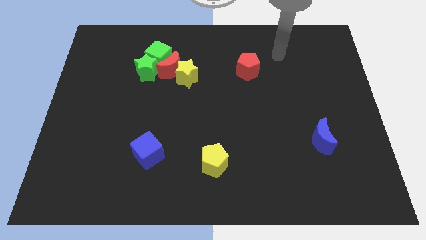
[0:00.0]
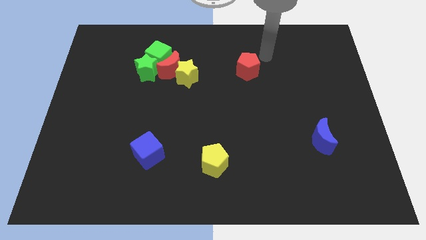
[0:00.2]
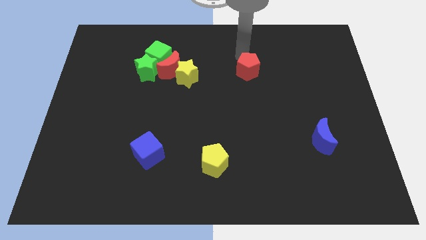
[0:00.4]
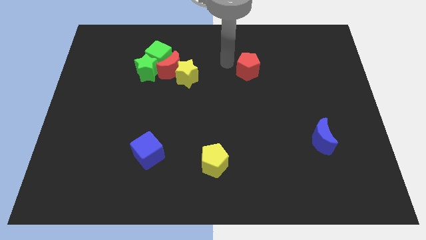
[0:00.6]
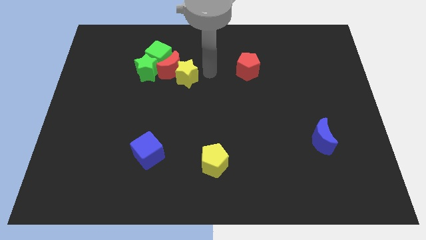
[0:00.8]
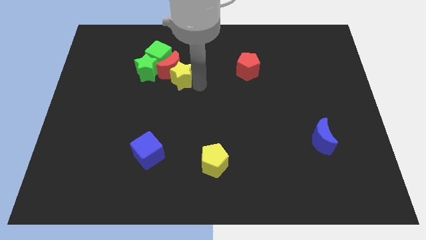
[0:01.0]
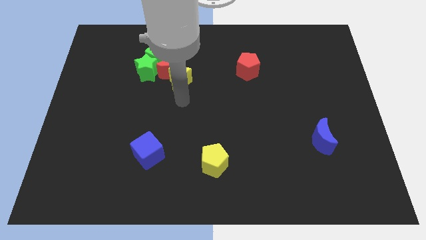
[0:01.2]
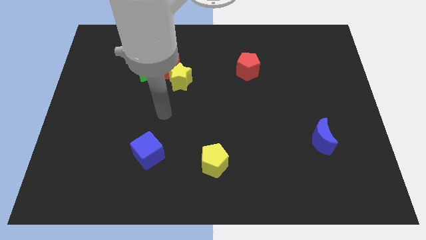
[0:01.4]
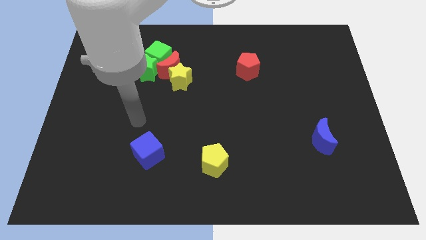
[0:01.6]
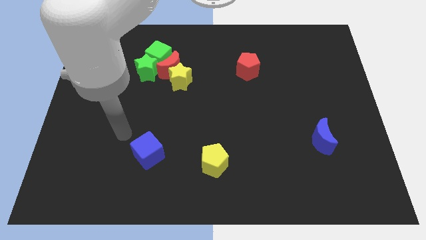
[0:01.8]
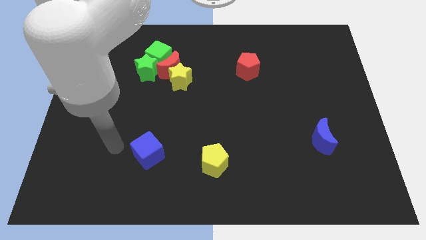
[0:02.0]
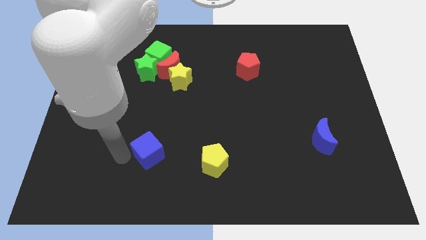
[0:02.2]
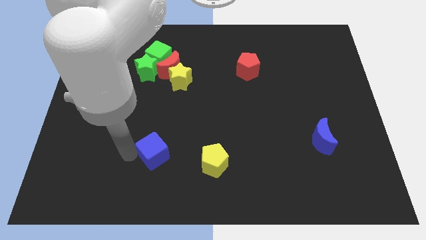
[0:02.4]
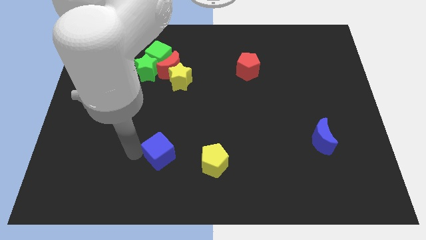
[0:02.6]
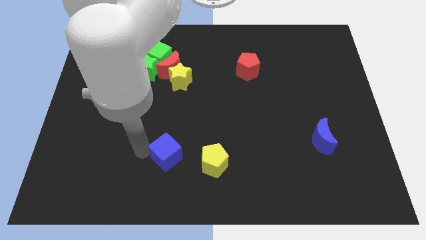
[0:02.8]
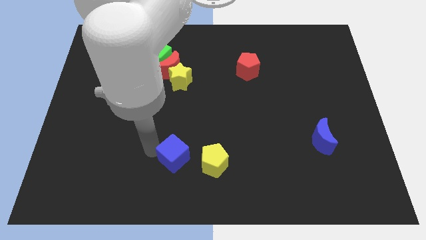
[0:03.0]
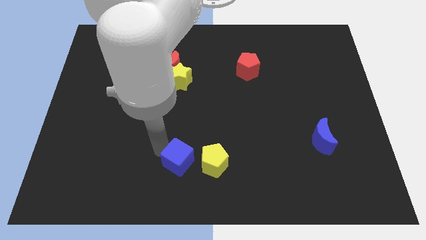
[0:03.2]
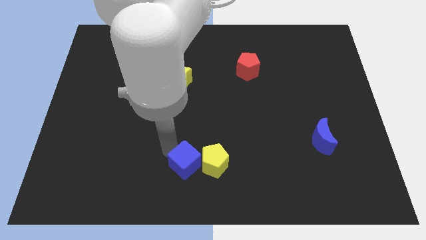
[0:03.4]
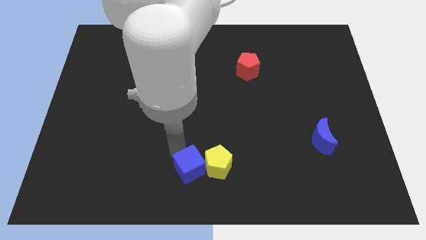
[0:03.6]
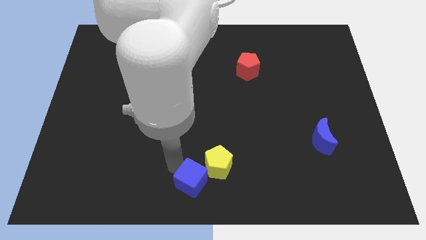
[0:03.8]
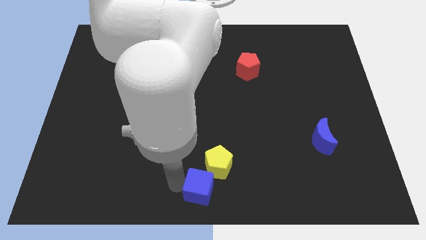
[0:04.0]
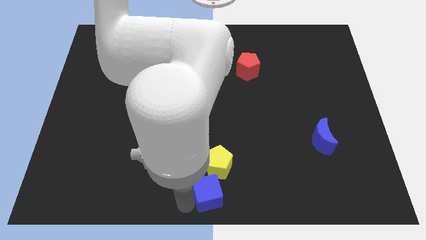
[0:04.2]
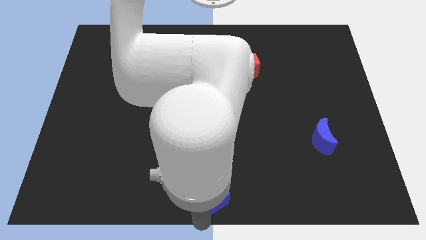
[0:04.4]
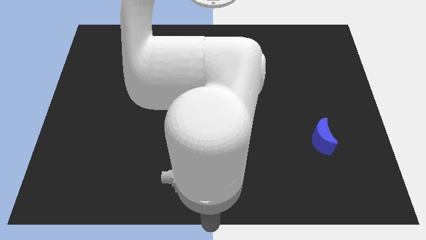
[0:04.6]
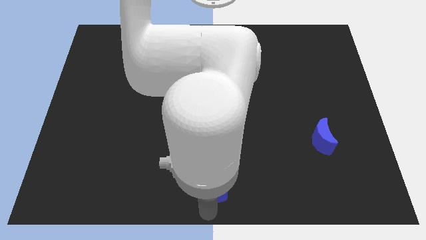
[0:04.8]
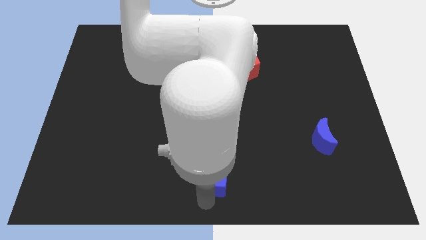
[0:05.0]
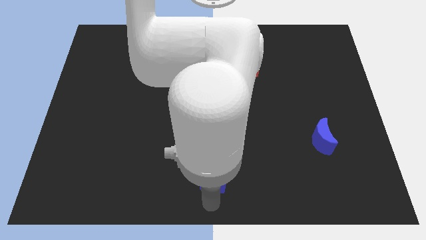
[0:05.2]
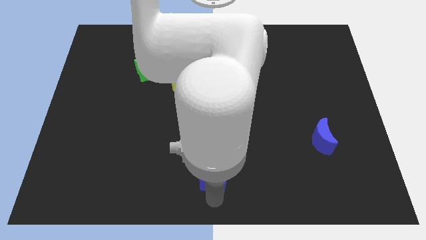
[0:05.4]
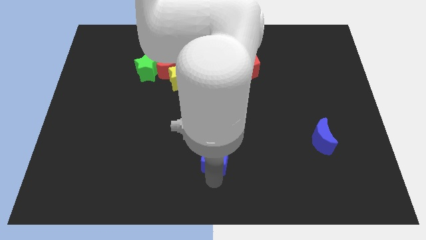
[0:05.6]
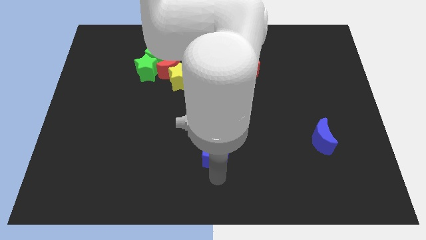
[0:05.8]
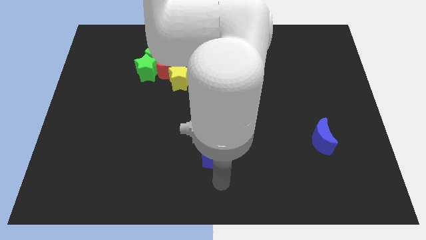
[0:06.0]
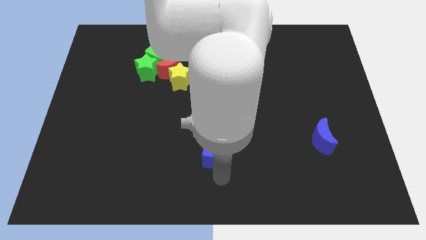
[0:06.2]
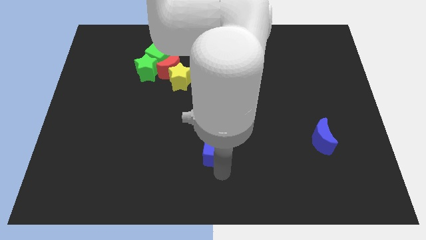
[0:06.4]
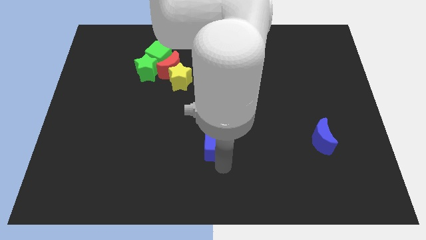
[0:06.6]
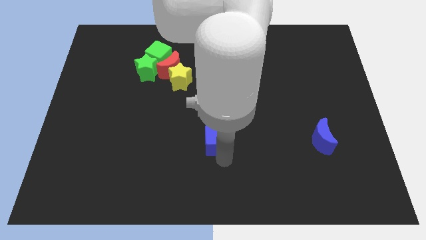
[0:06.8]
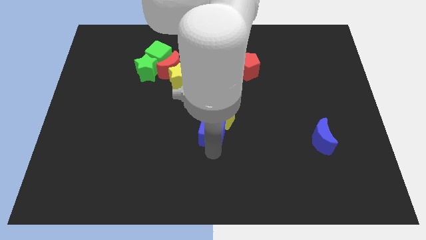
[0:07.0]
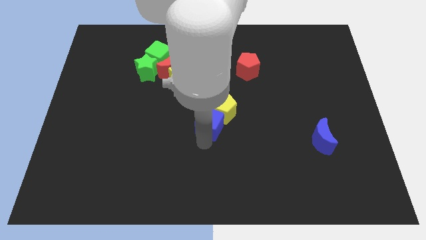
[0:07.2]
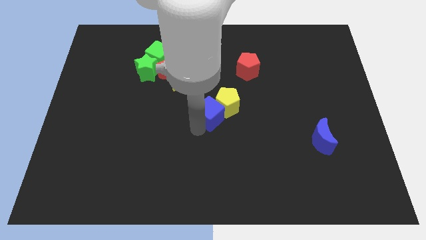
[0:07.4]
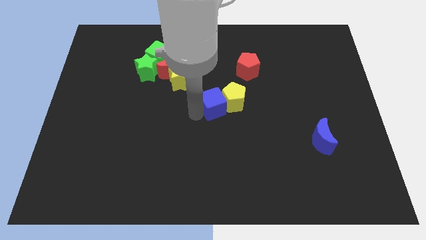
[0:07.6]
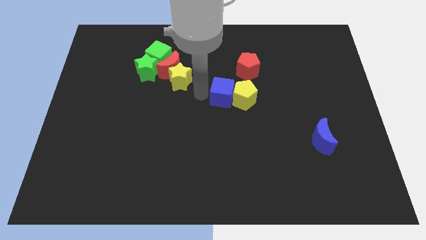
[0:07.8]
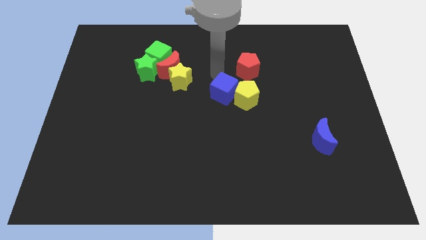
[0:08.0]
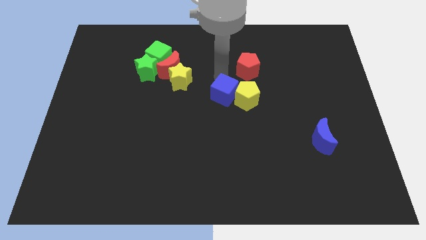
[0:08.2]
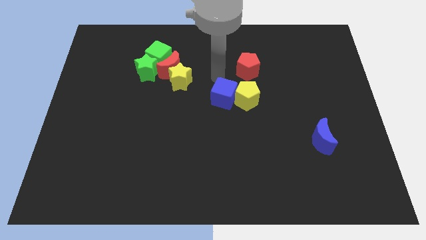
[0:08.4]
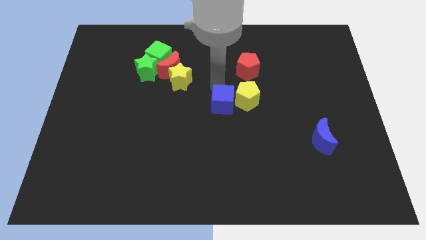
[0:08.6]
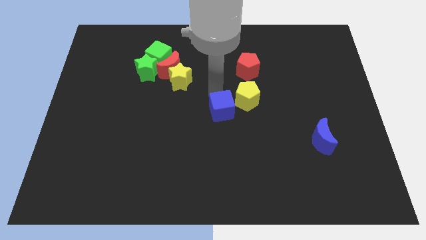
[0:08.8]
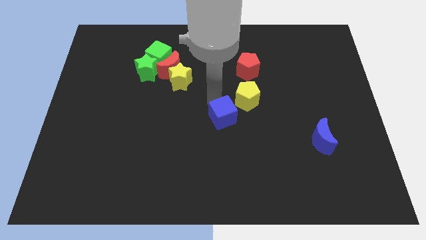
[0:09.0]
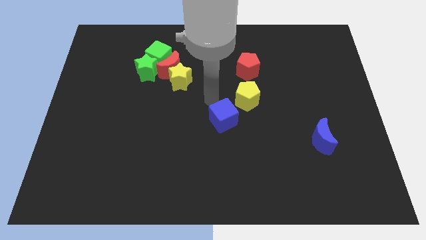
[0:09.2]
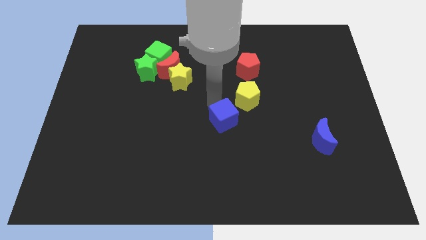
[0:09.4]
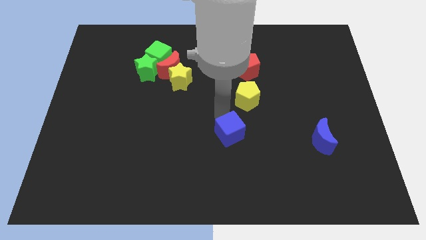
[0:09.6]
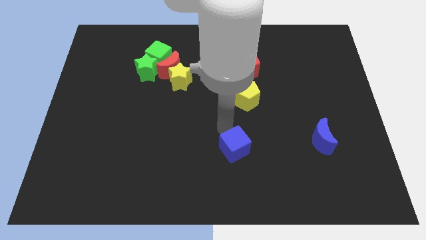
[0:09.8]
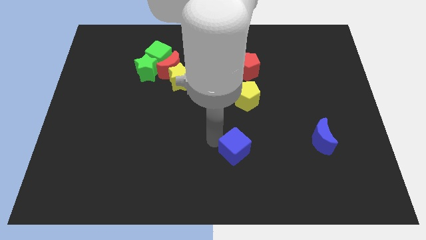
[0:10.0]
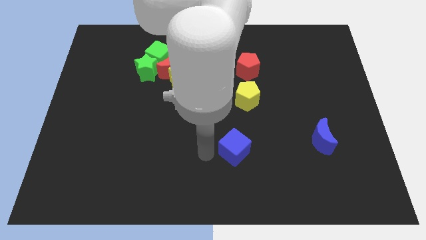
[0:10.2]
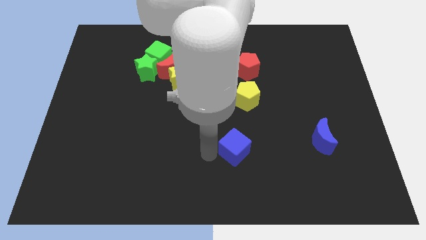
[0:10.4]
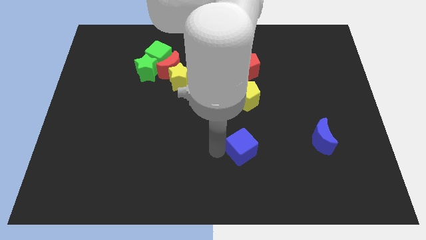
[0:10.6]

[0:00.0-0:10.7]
push the blue cube to the right

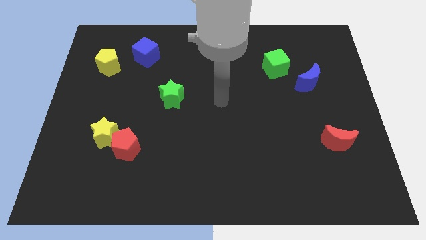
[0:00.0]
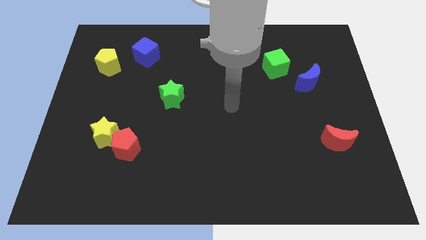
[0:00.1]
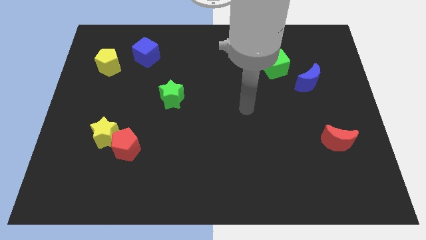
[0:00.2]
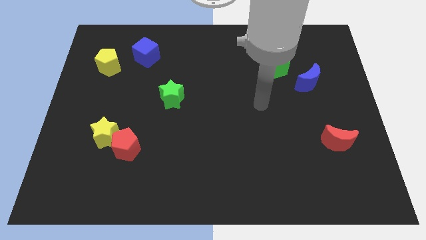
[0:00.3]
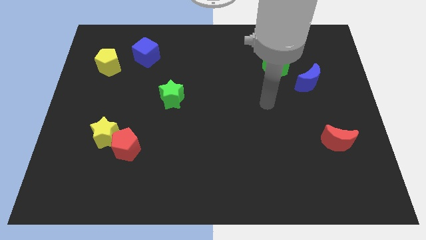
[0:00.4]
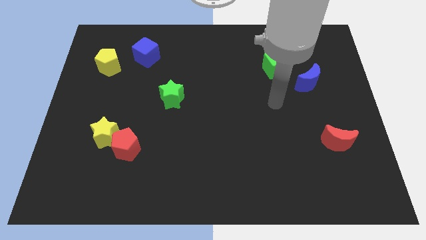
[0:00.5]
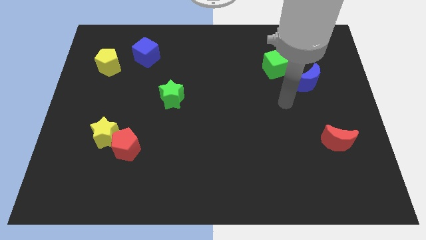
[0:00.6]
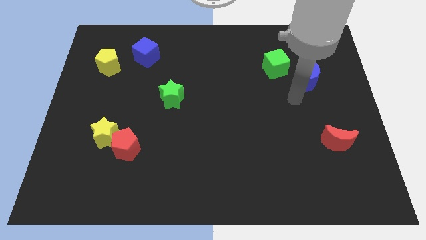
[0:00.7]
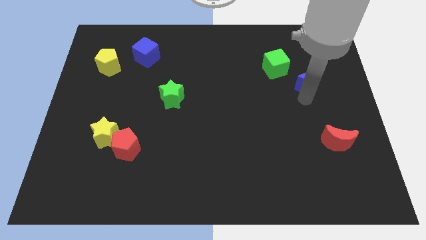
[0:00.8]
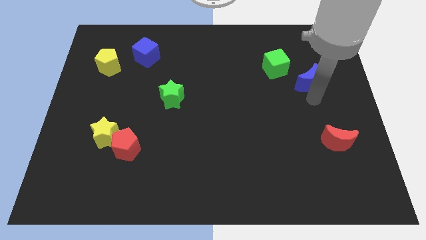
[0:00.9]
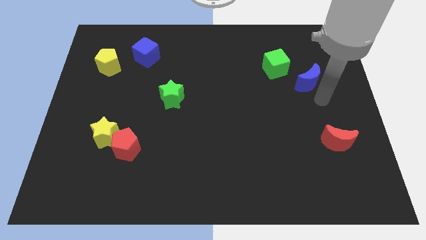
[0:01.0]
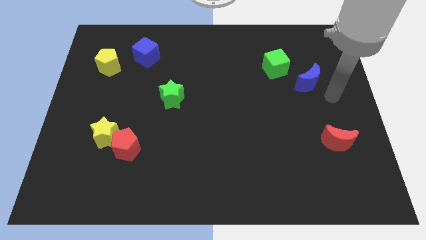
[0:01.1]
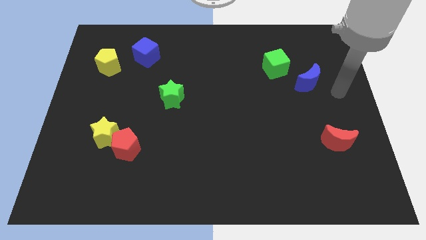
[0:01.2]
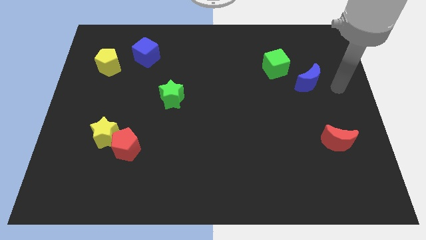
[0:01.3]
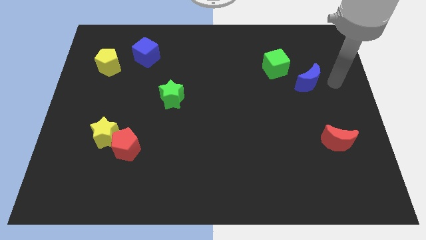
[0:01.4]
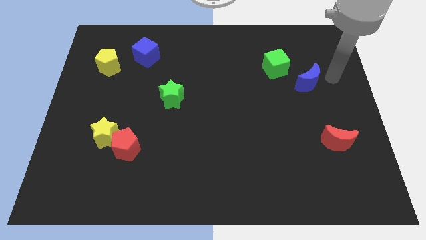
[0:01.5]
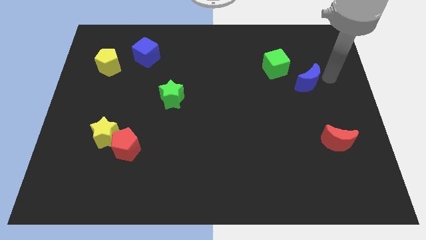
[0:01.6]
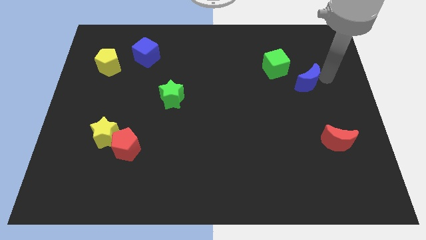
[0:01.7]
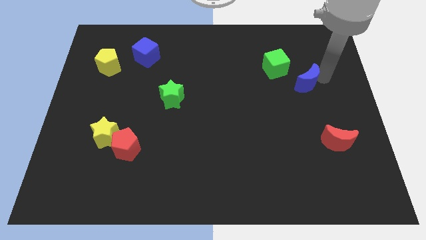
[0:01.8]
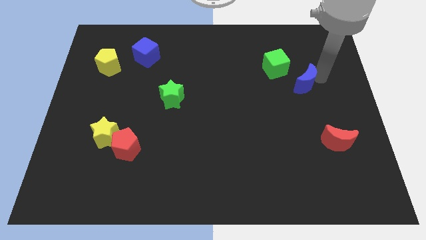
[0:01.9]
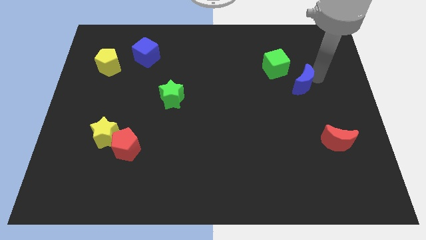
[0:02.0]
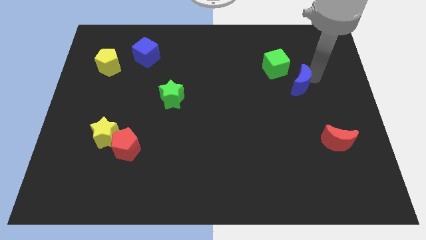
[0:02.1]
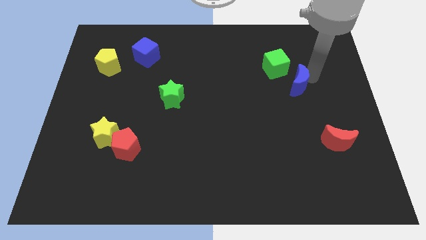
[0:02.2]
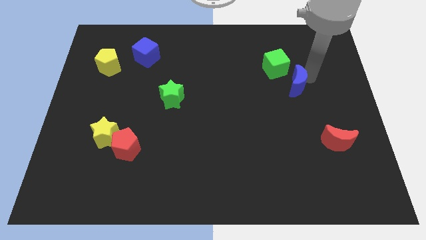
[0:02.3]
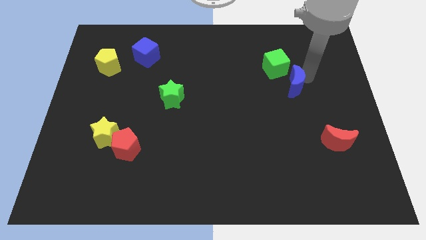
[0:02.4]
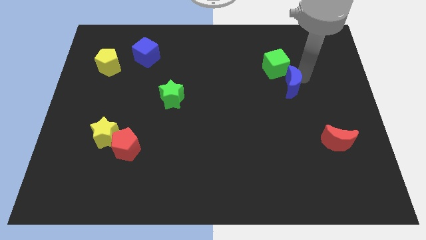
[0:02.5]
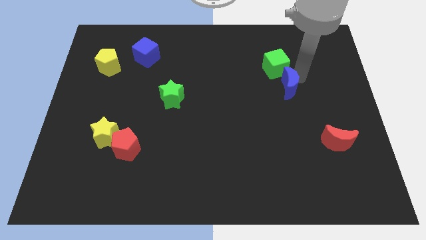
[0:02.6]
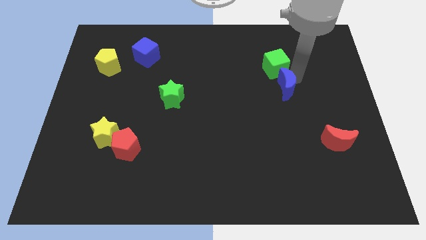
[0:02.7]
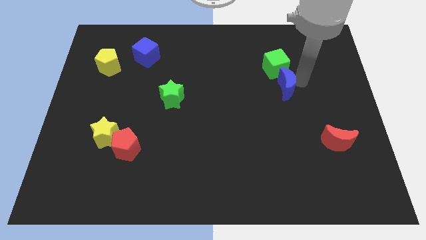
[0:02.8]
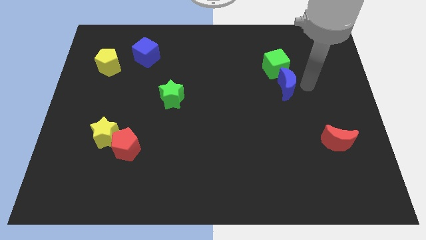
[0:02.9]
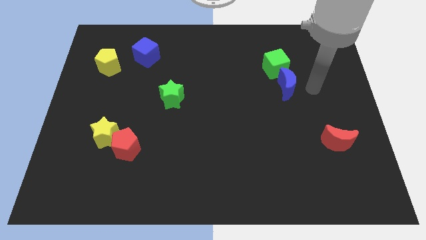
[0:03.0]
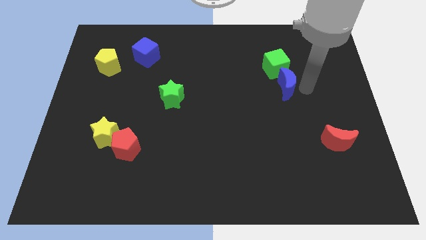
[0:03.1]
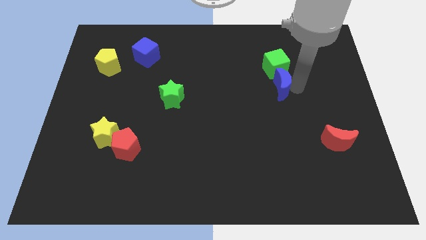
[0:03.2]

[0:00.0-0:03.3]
slightly move the blue moon left
